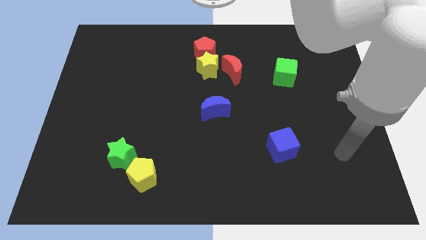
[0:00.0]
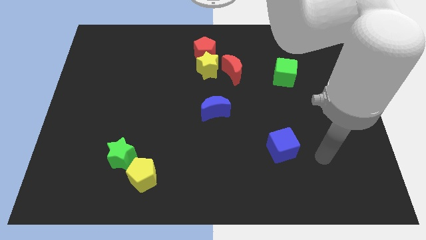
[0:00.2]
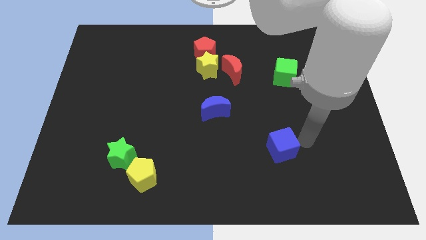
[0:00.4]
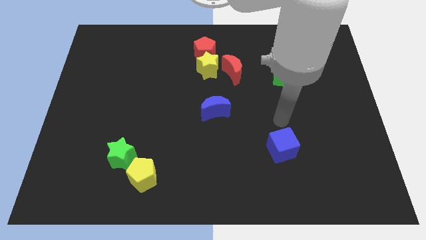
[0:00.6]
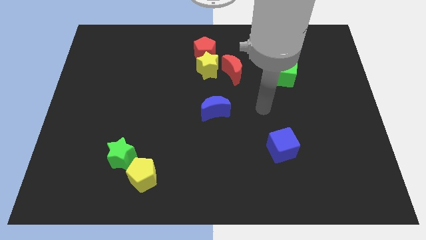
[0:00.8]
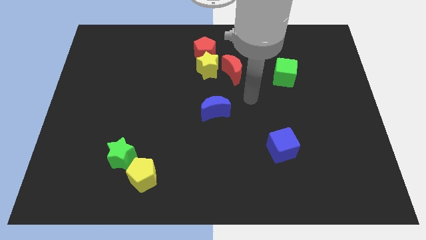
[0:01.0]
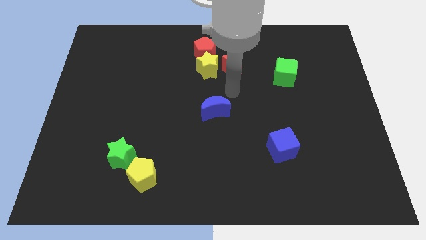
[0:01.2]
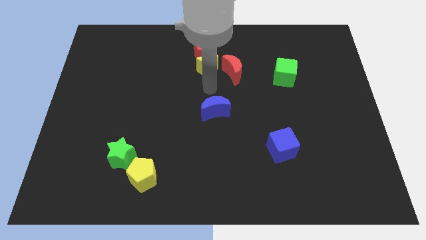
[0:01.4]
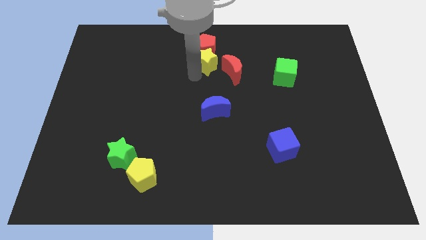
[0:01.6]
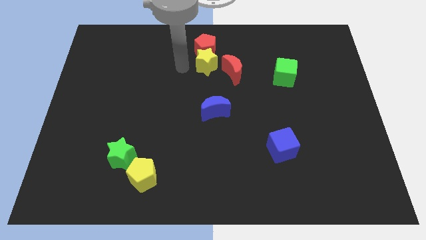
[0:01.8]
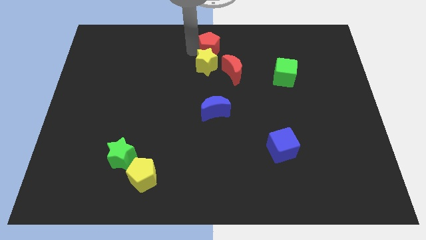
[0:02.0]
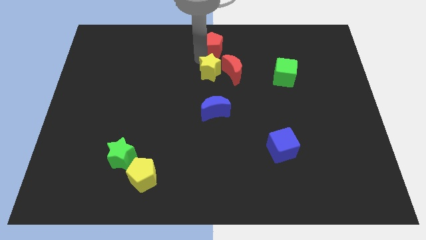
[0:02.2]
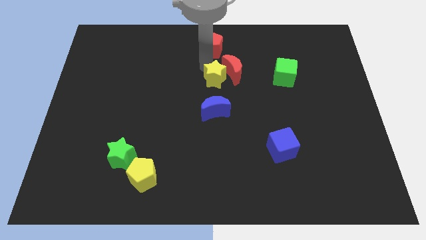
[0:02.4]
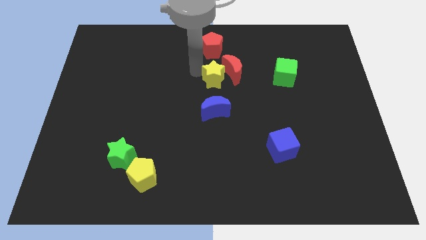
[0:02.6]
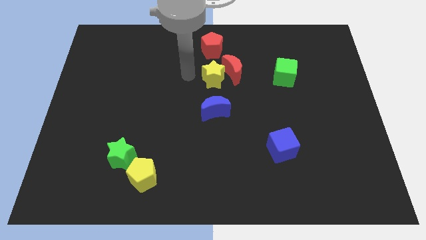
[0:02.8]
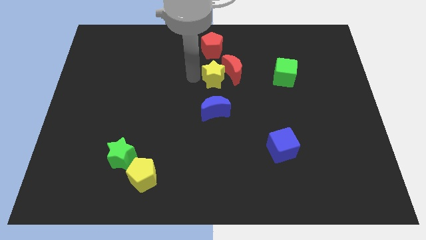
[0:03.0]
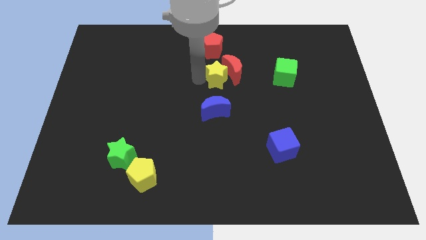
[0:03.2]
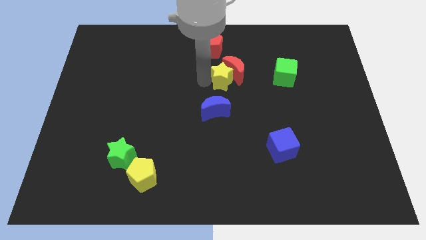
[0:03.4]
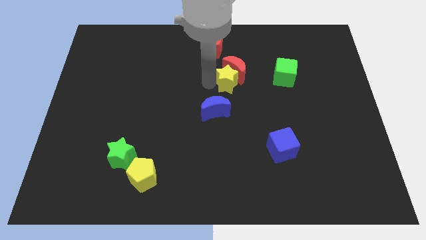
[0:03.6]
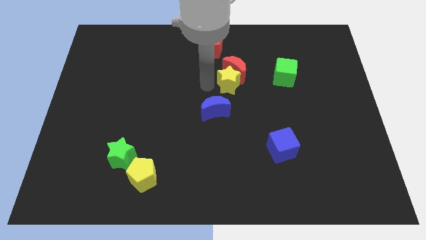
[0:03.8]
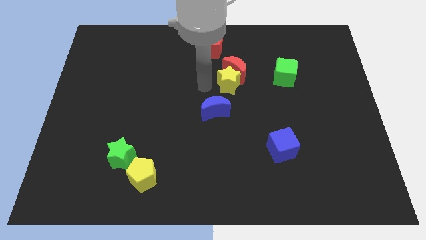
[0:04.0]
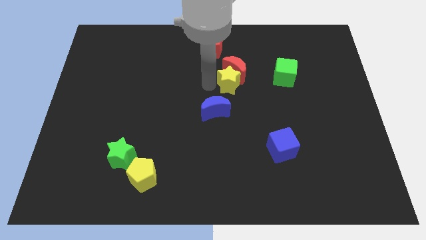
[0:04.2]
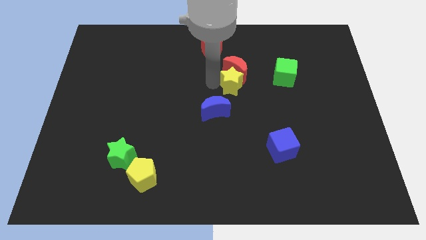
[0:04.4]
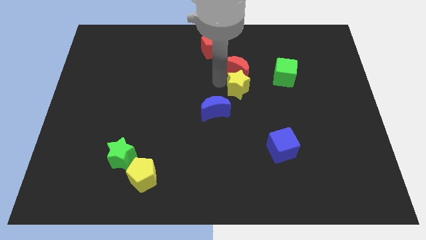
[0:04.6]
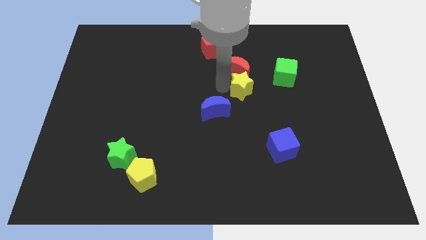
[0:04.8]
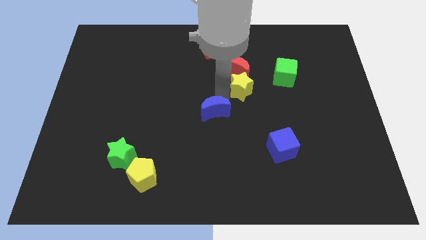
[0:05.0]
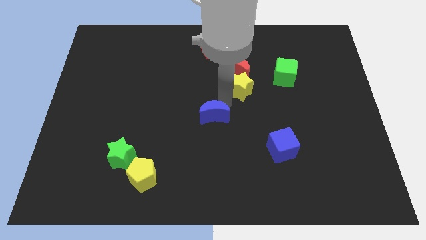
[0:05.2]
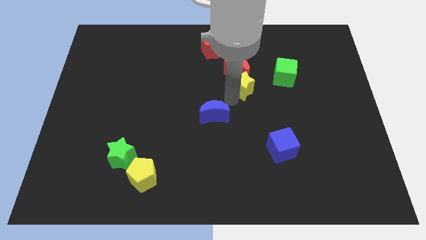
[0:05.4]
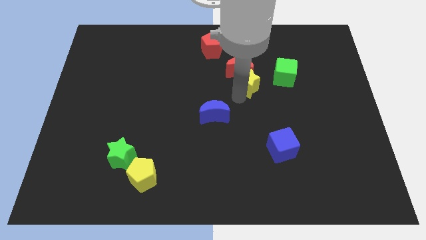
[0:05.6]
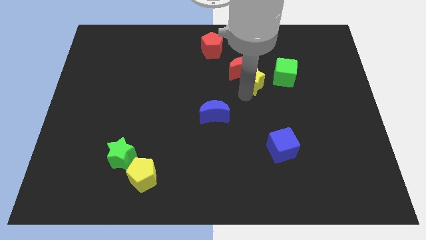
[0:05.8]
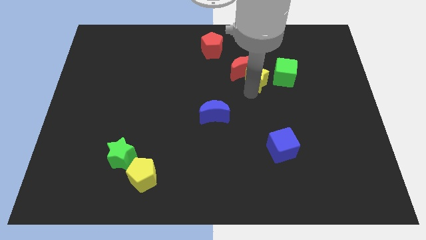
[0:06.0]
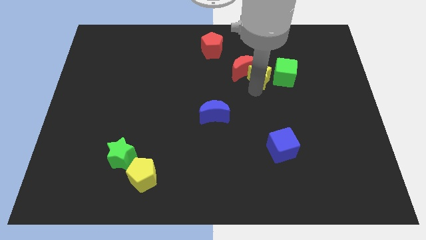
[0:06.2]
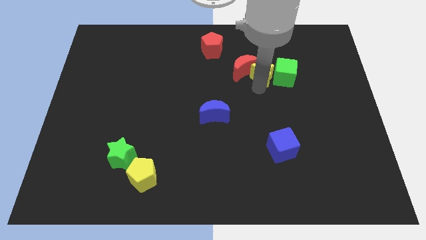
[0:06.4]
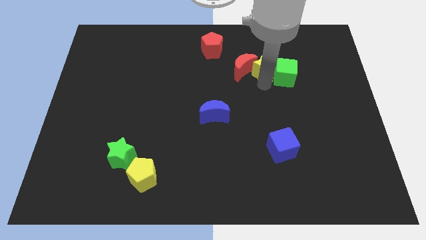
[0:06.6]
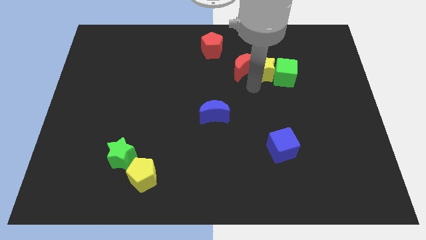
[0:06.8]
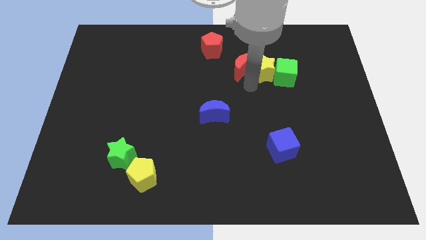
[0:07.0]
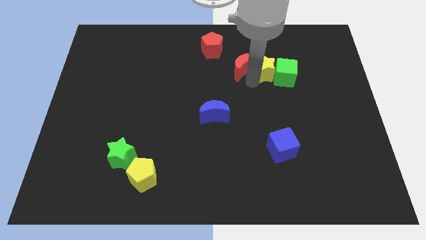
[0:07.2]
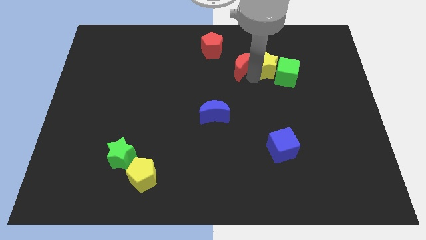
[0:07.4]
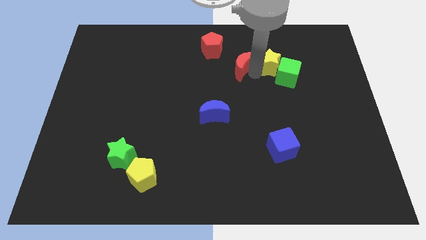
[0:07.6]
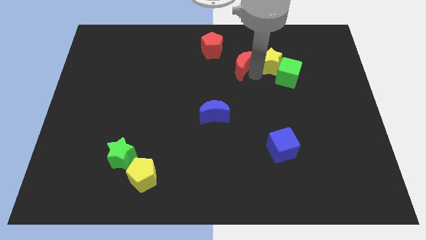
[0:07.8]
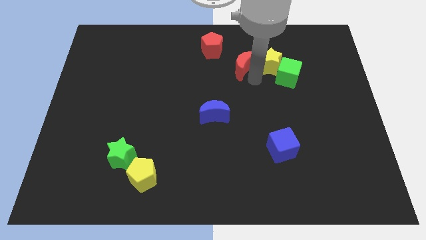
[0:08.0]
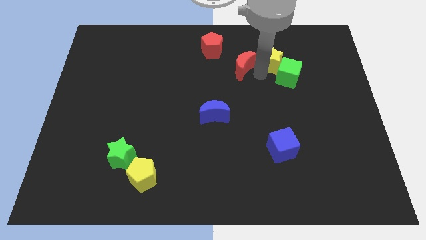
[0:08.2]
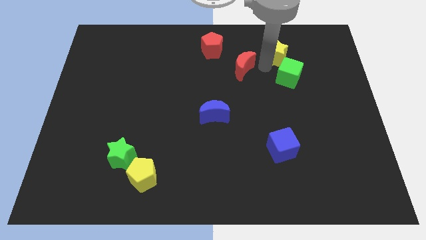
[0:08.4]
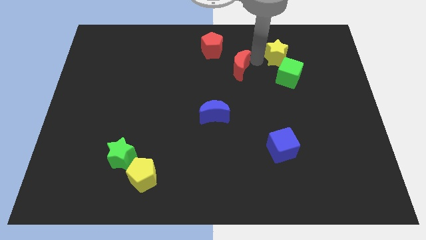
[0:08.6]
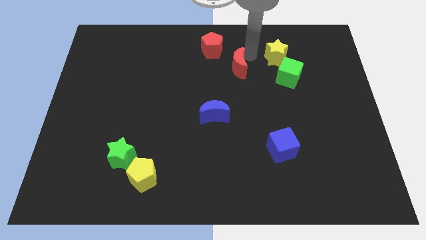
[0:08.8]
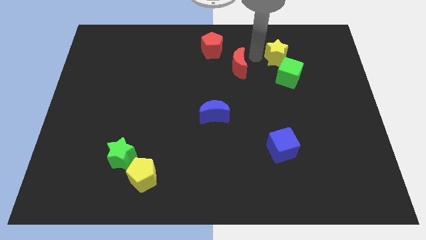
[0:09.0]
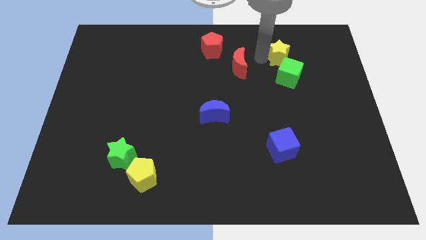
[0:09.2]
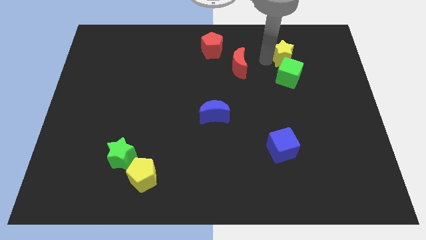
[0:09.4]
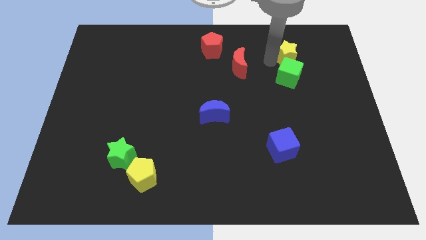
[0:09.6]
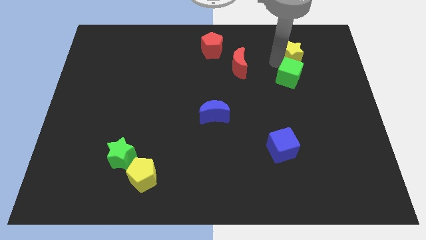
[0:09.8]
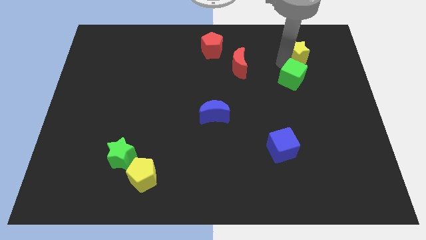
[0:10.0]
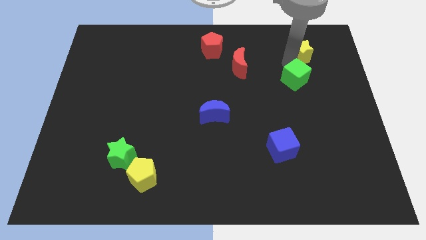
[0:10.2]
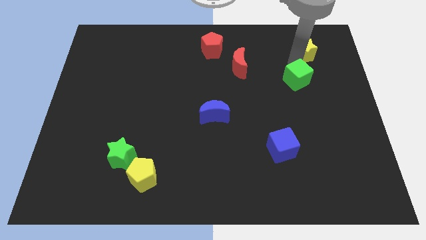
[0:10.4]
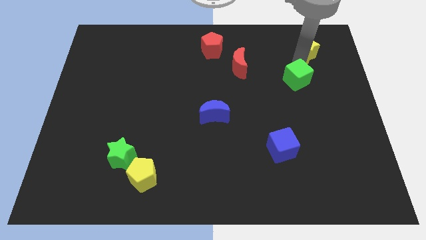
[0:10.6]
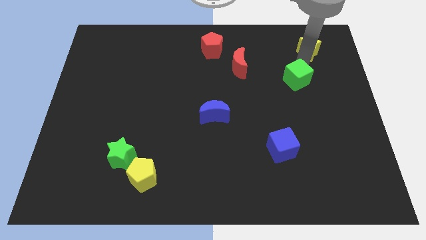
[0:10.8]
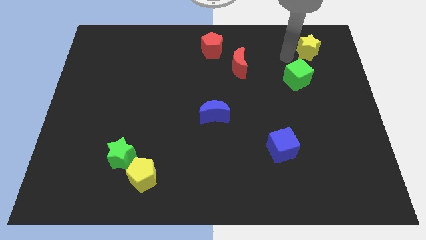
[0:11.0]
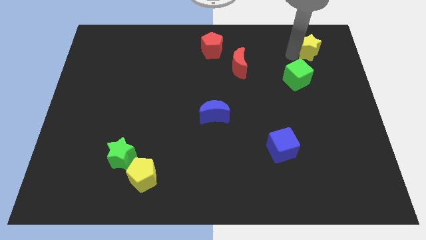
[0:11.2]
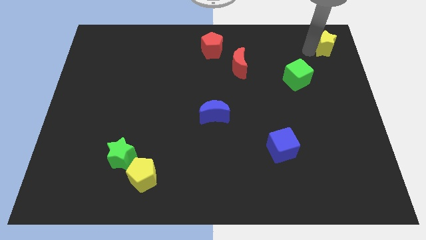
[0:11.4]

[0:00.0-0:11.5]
move the yellow star to the top right
